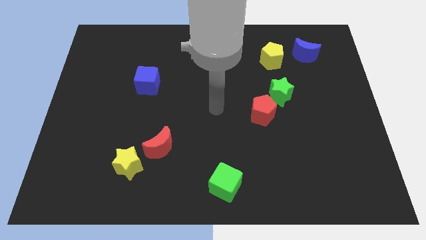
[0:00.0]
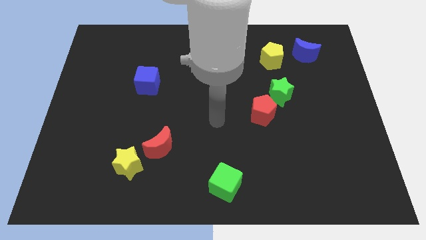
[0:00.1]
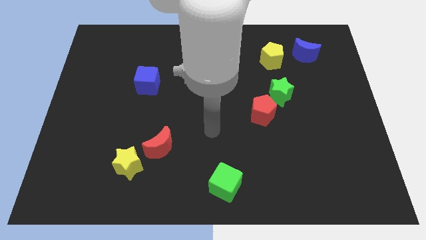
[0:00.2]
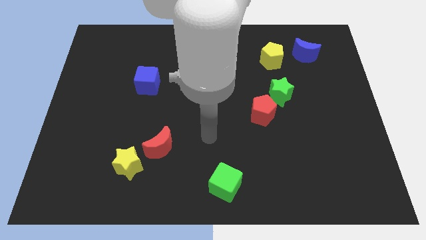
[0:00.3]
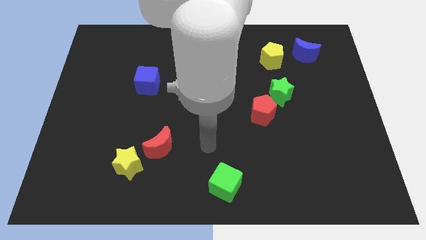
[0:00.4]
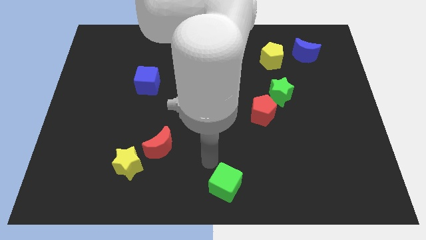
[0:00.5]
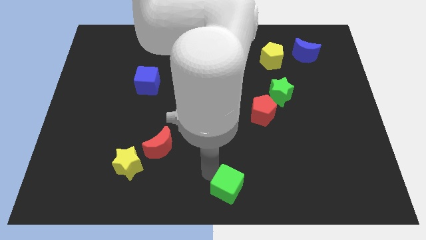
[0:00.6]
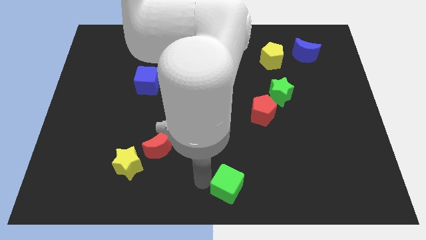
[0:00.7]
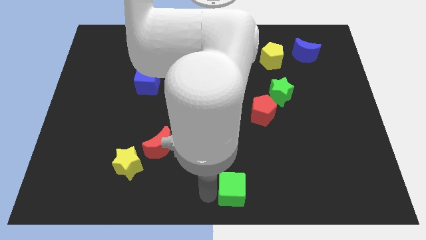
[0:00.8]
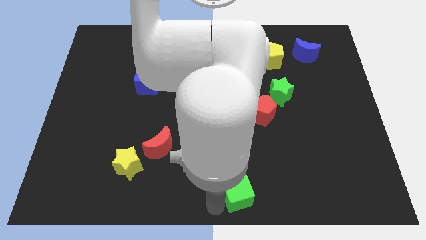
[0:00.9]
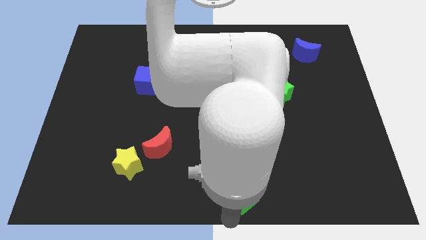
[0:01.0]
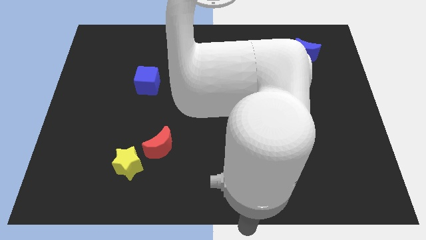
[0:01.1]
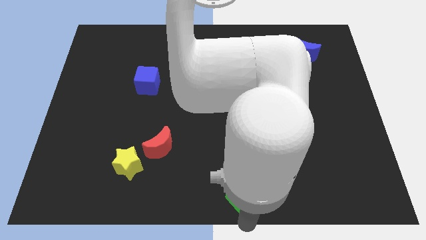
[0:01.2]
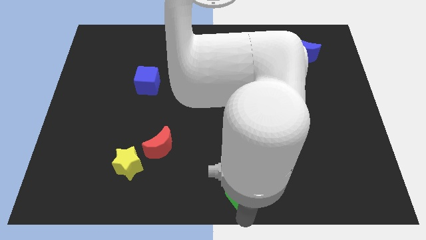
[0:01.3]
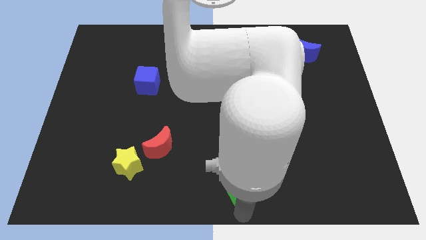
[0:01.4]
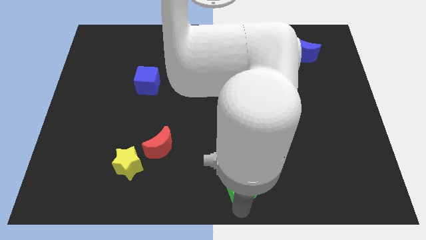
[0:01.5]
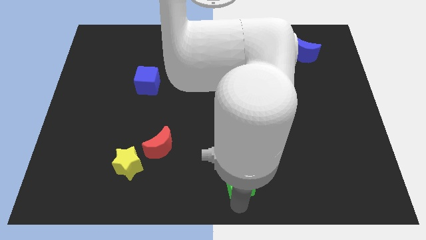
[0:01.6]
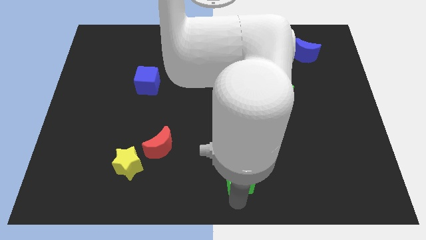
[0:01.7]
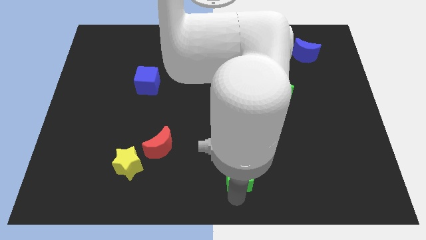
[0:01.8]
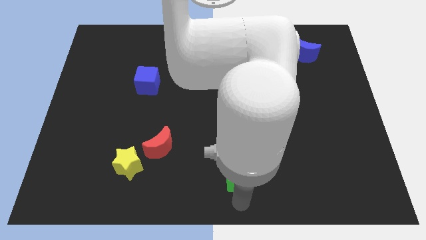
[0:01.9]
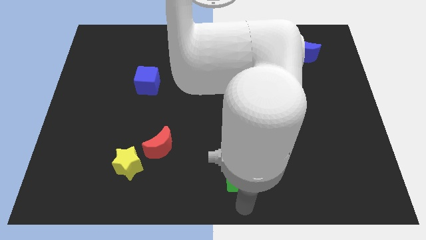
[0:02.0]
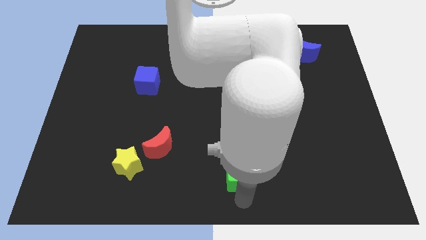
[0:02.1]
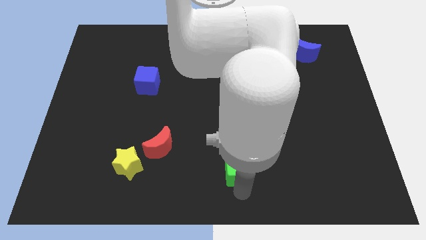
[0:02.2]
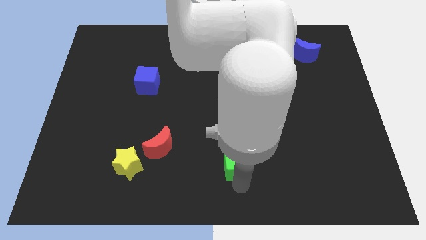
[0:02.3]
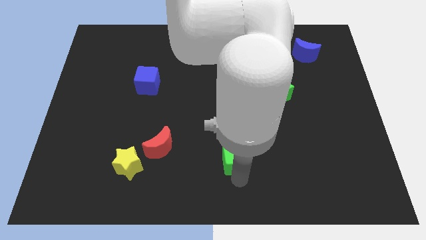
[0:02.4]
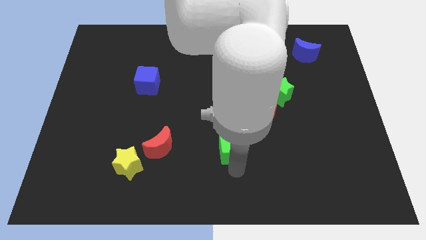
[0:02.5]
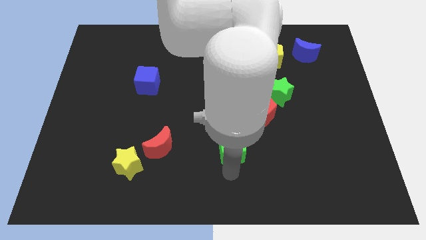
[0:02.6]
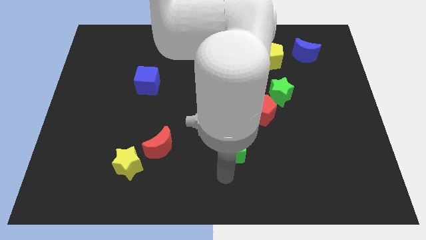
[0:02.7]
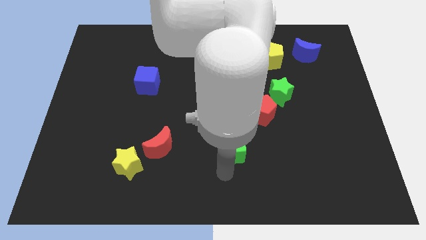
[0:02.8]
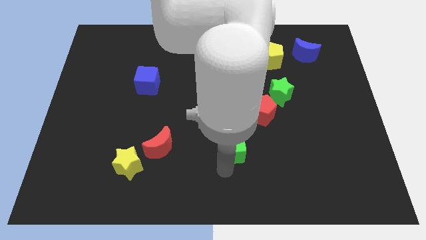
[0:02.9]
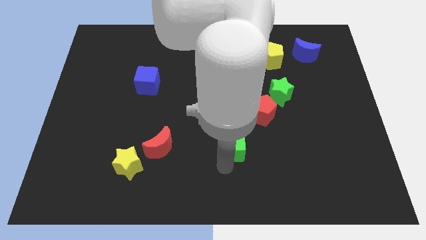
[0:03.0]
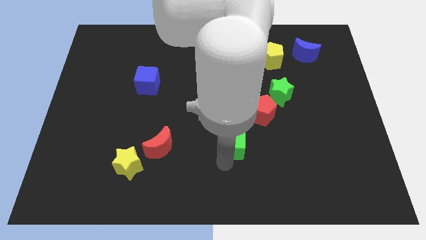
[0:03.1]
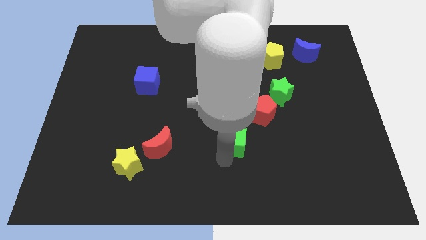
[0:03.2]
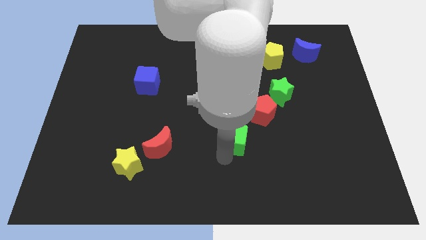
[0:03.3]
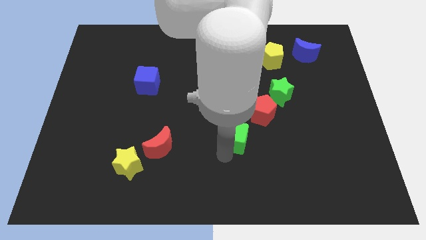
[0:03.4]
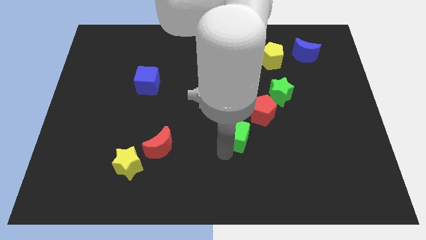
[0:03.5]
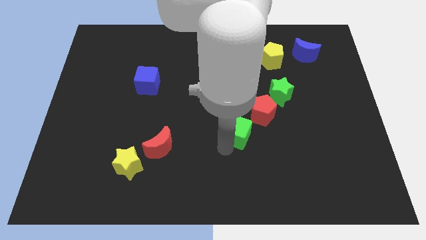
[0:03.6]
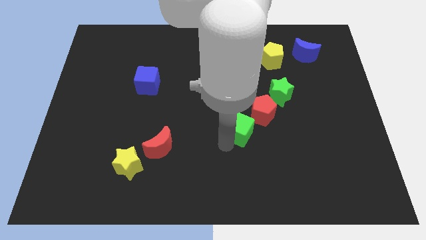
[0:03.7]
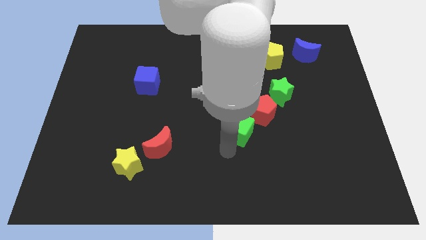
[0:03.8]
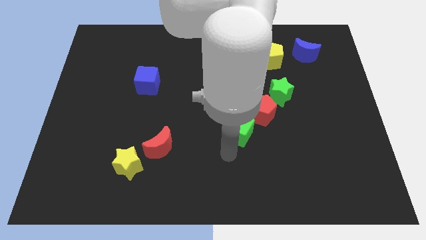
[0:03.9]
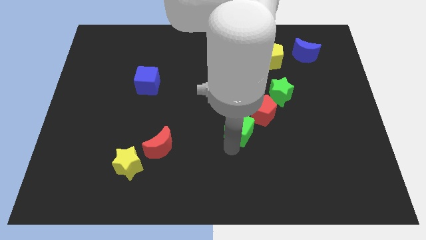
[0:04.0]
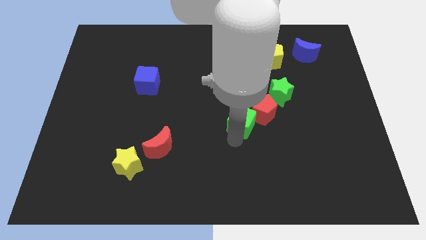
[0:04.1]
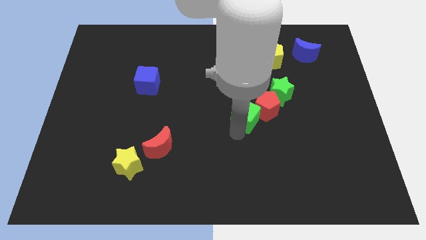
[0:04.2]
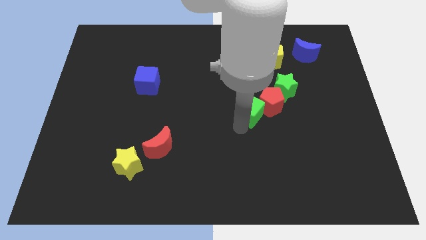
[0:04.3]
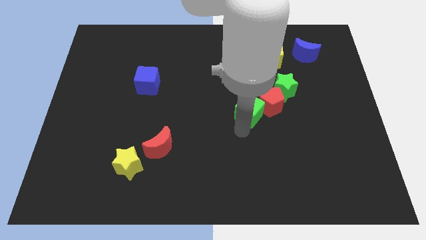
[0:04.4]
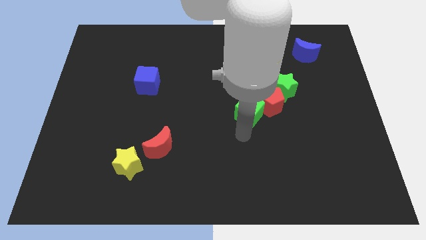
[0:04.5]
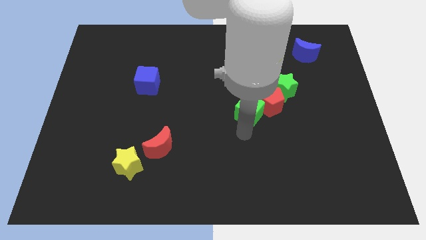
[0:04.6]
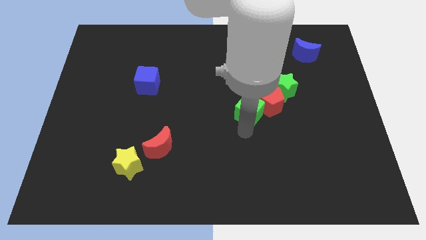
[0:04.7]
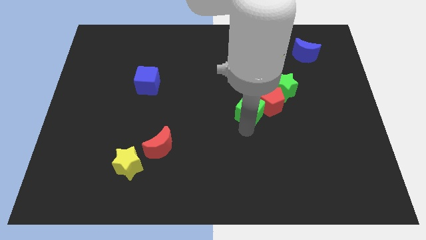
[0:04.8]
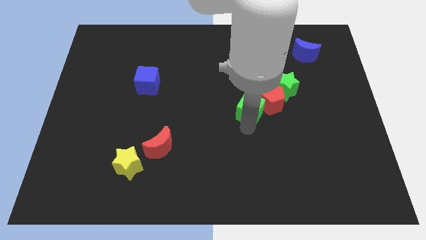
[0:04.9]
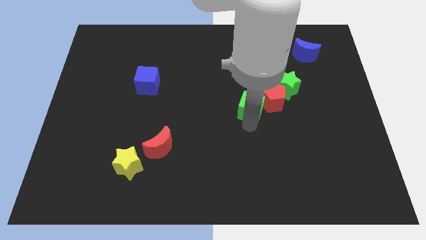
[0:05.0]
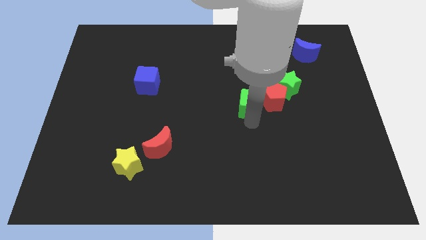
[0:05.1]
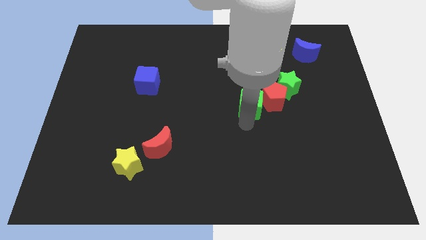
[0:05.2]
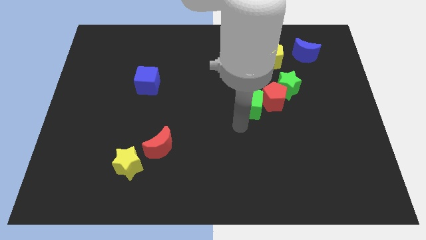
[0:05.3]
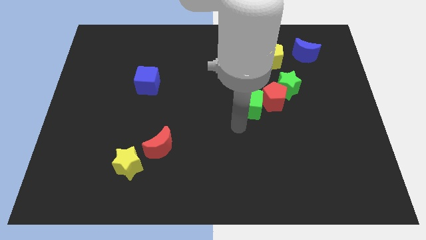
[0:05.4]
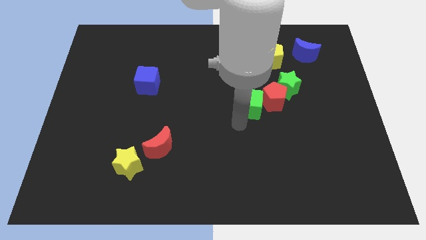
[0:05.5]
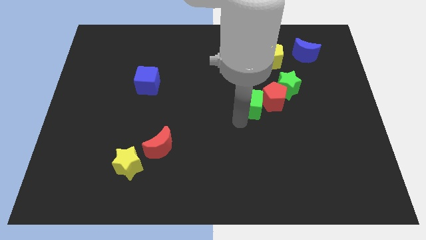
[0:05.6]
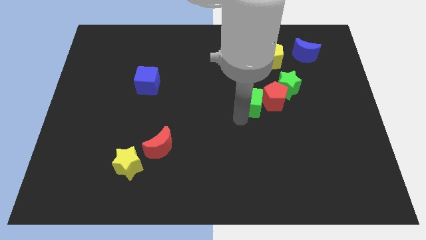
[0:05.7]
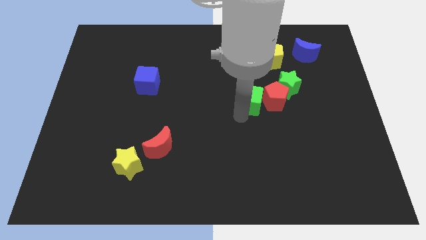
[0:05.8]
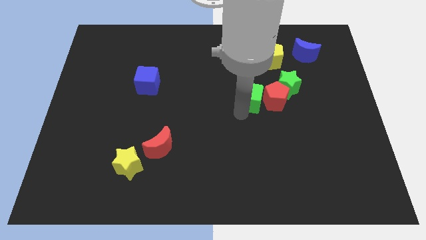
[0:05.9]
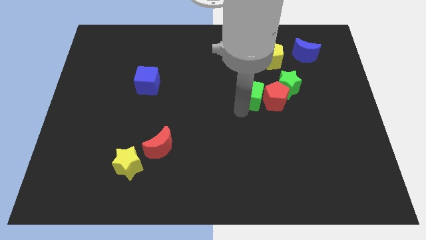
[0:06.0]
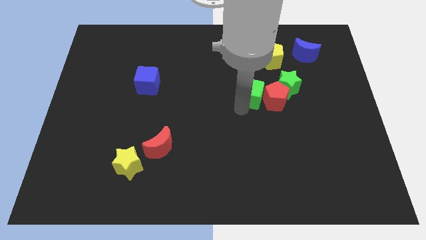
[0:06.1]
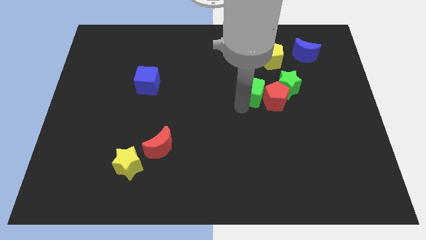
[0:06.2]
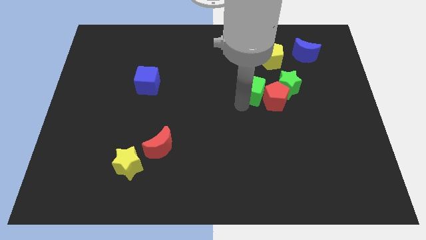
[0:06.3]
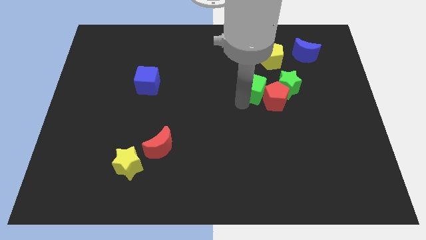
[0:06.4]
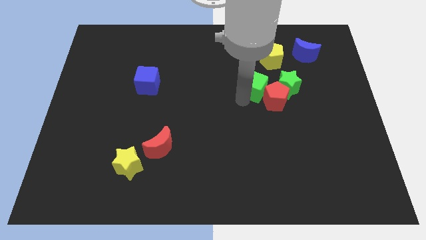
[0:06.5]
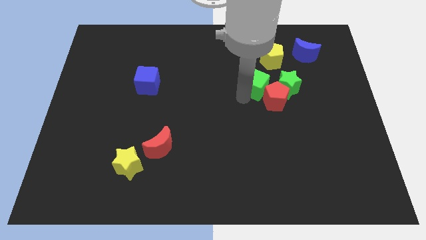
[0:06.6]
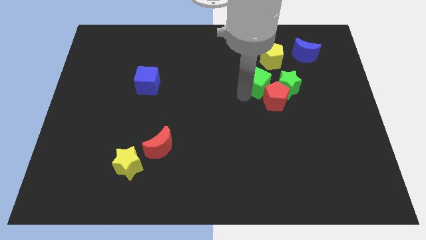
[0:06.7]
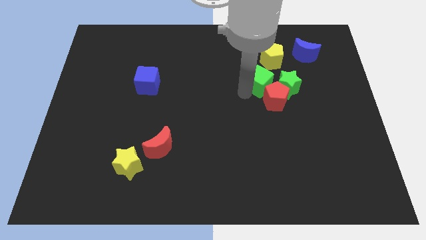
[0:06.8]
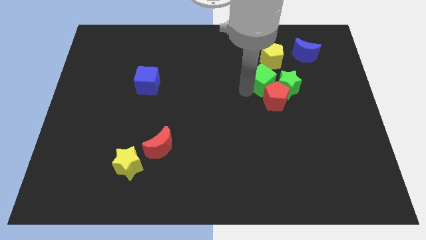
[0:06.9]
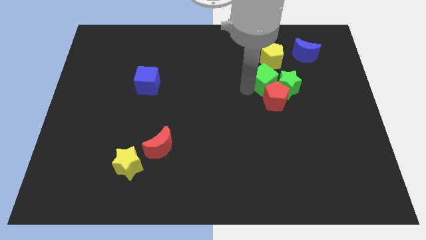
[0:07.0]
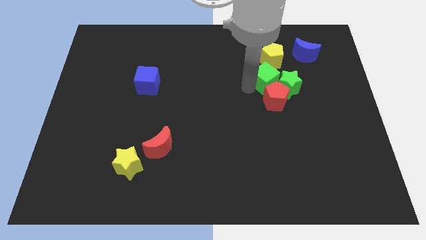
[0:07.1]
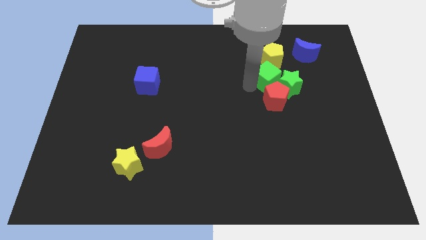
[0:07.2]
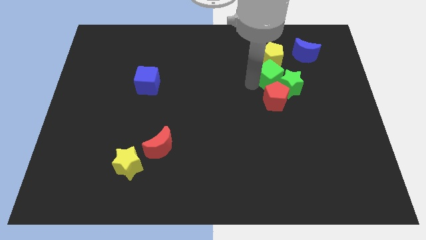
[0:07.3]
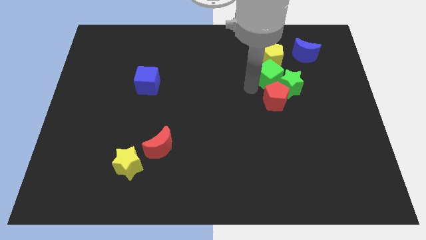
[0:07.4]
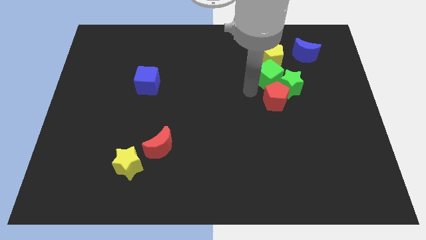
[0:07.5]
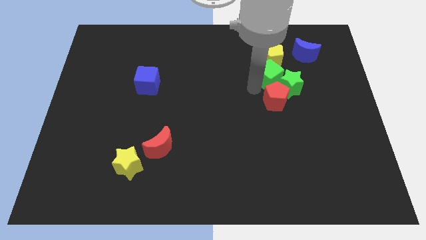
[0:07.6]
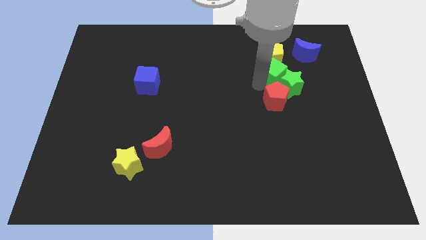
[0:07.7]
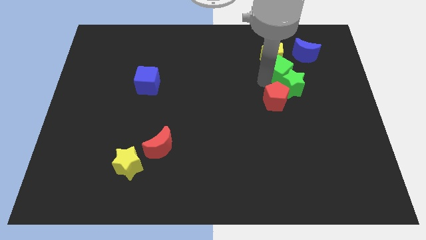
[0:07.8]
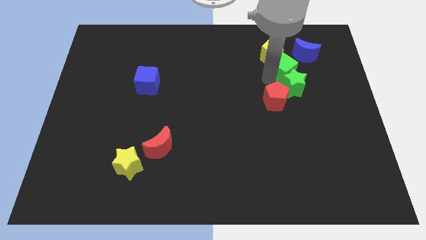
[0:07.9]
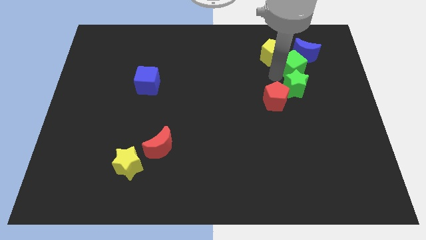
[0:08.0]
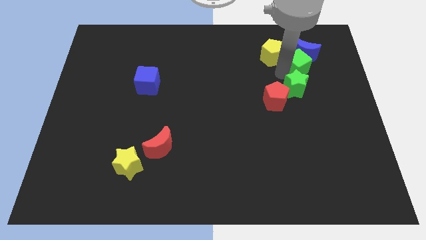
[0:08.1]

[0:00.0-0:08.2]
push the green cube close to the blue moon
